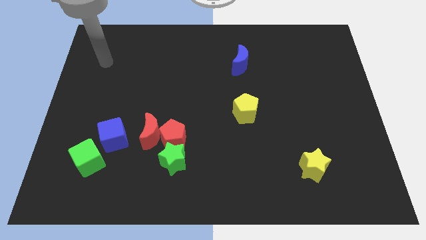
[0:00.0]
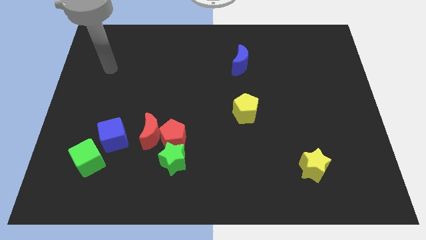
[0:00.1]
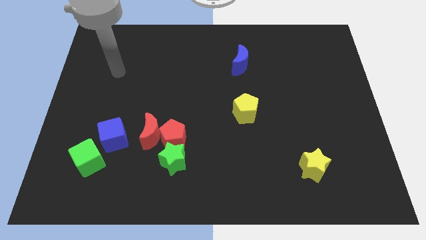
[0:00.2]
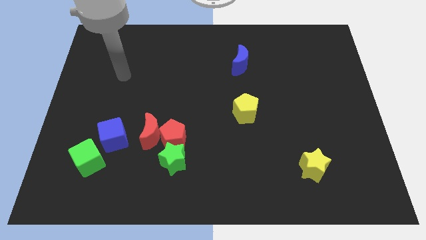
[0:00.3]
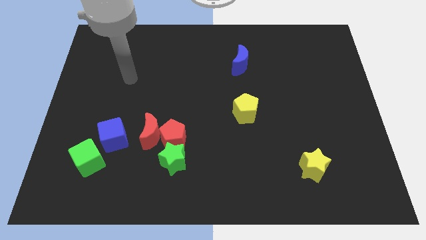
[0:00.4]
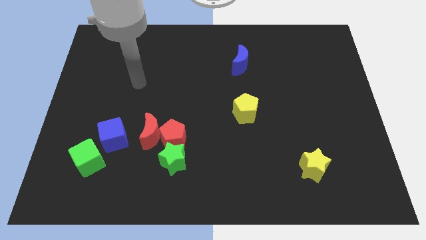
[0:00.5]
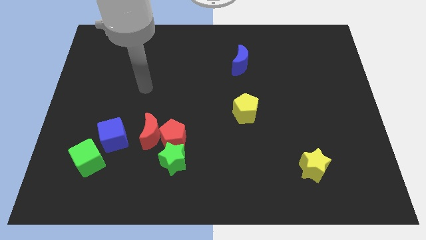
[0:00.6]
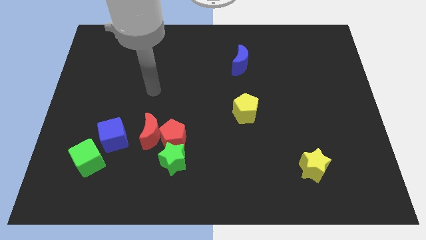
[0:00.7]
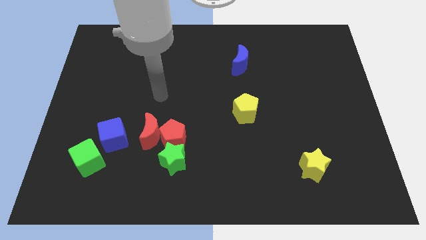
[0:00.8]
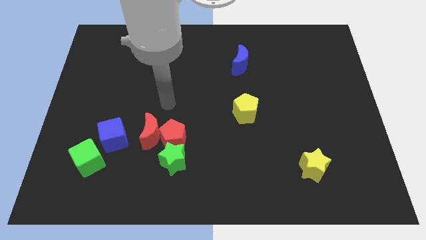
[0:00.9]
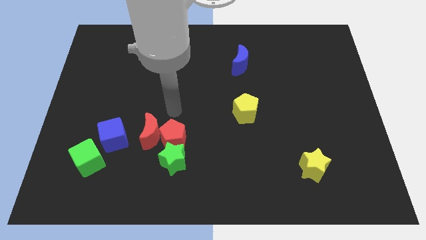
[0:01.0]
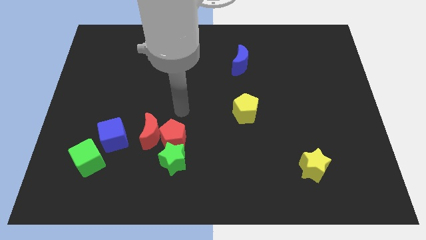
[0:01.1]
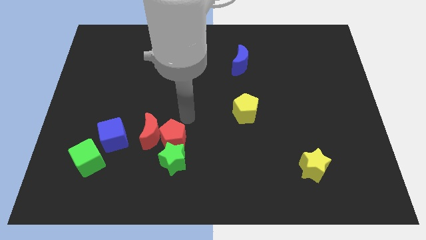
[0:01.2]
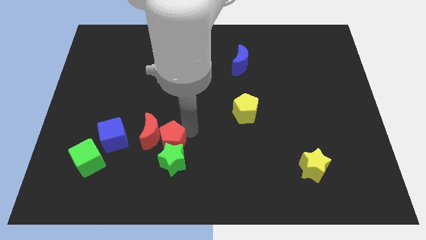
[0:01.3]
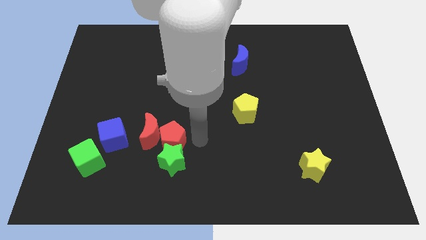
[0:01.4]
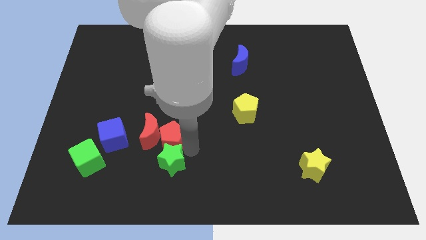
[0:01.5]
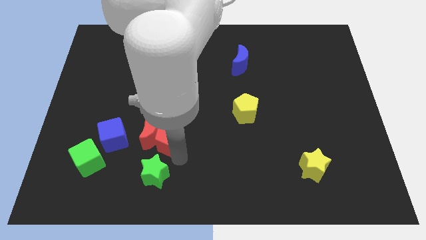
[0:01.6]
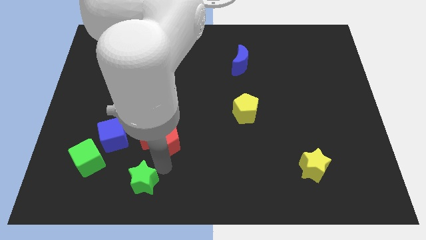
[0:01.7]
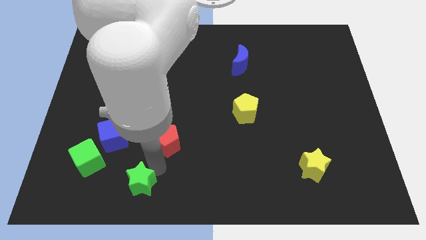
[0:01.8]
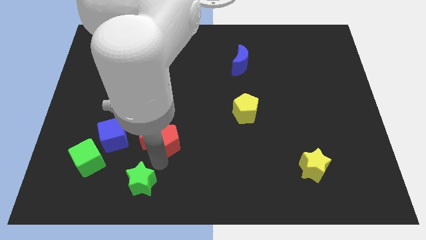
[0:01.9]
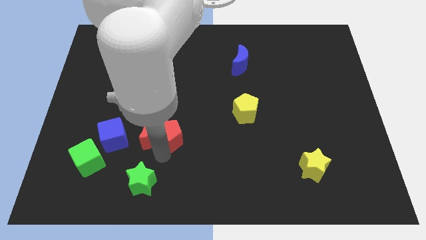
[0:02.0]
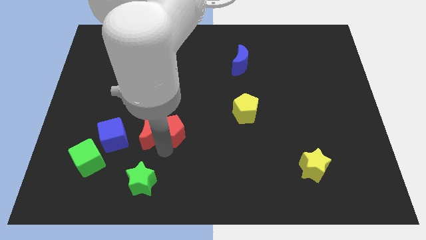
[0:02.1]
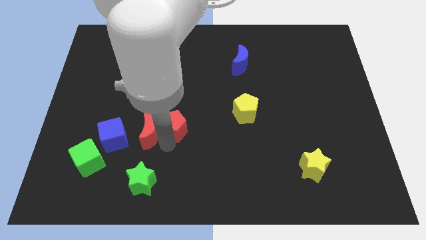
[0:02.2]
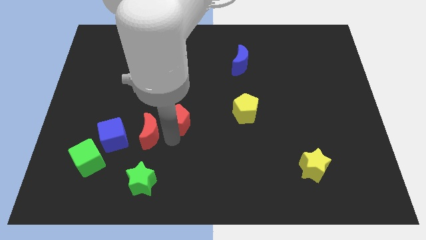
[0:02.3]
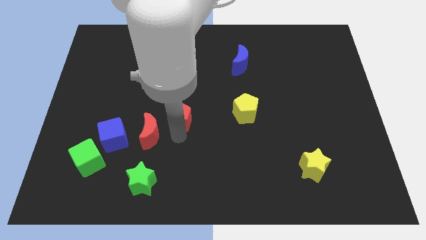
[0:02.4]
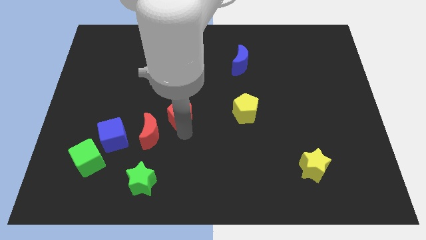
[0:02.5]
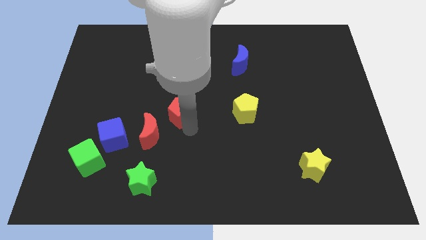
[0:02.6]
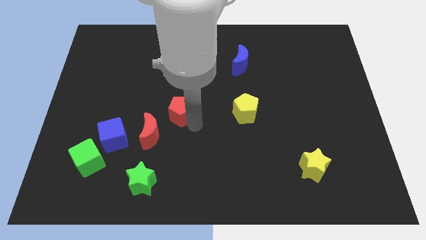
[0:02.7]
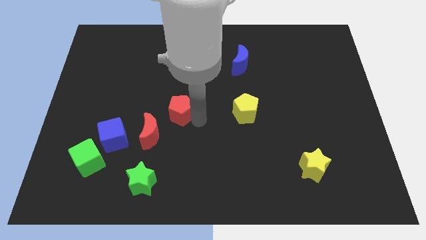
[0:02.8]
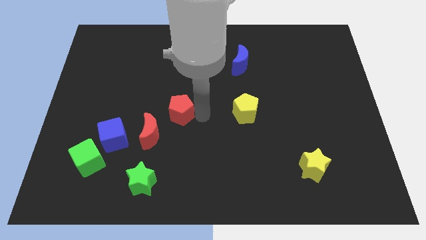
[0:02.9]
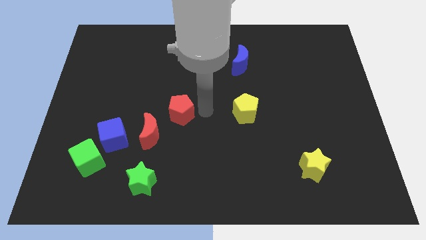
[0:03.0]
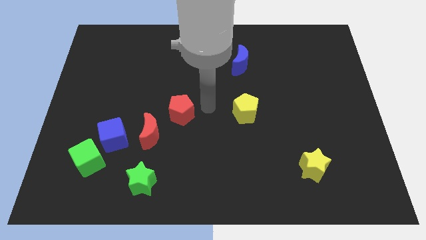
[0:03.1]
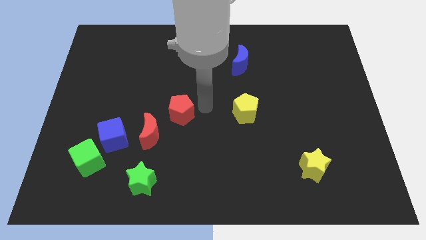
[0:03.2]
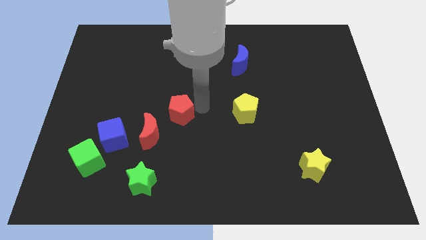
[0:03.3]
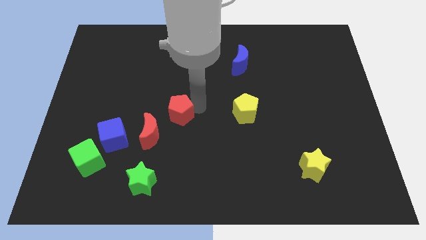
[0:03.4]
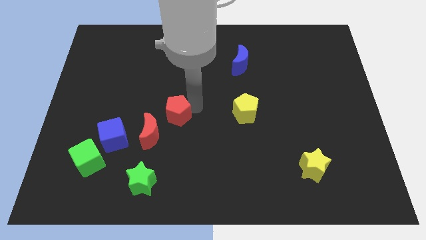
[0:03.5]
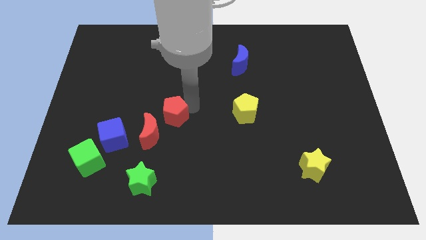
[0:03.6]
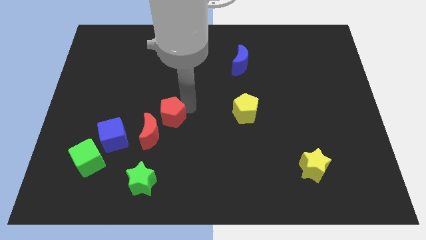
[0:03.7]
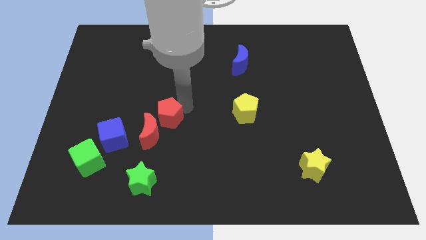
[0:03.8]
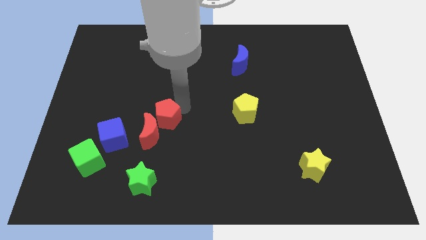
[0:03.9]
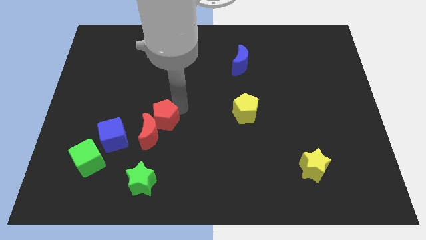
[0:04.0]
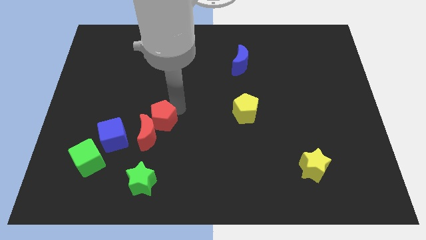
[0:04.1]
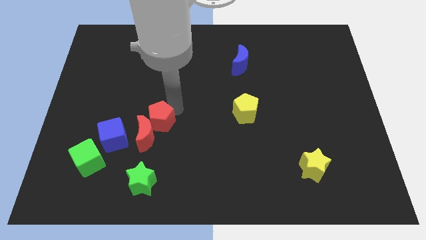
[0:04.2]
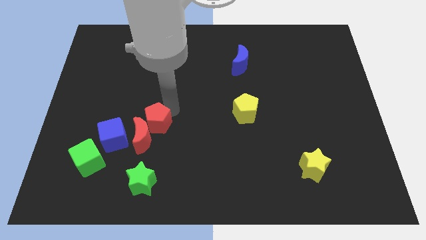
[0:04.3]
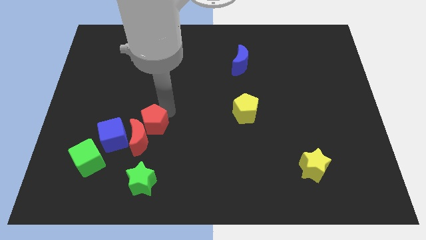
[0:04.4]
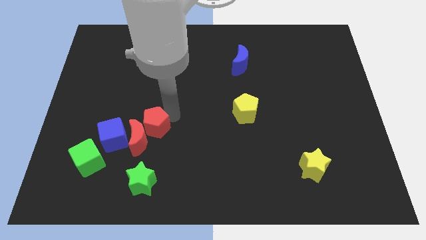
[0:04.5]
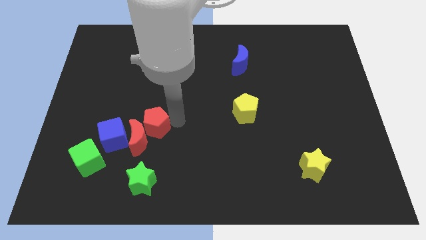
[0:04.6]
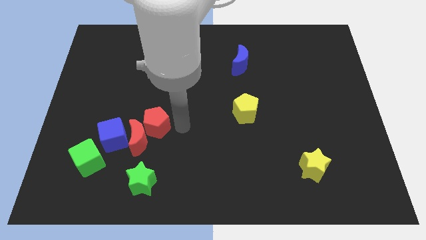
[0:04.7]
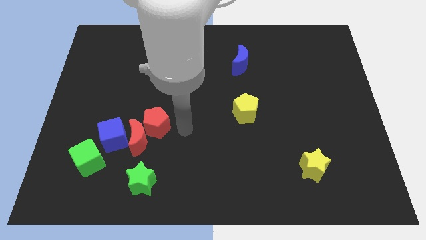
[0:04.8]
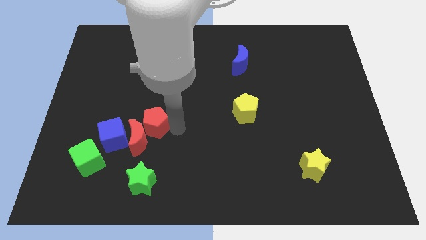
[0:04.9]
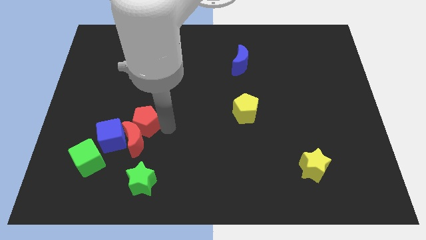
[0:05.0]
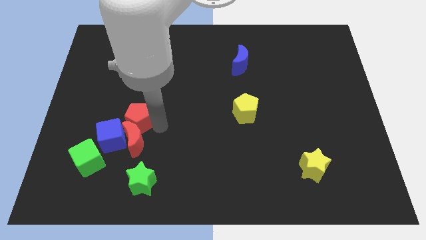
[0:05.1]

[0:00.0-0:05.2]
slightly slide the red pentagon left

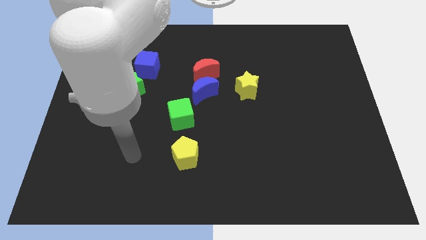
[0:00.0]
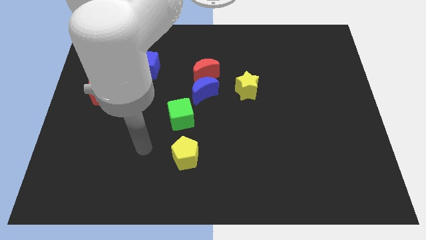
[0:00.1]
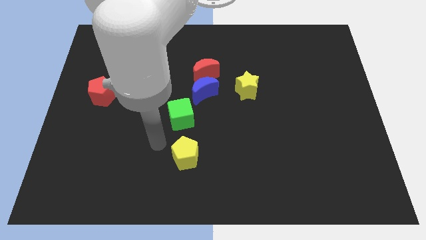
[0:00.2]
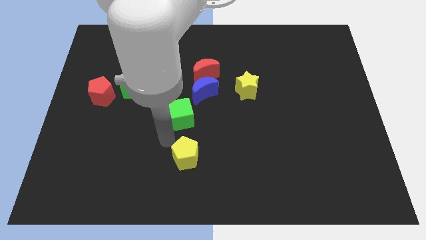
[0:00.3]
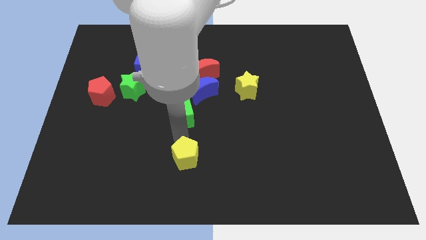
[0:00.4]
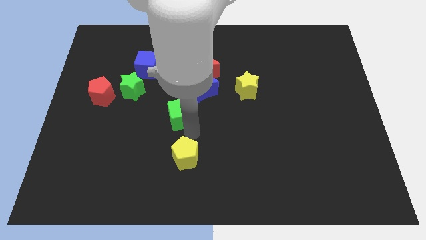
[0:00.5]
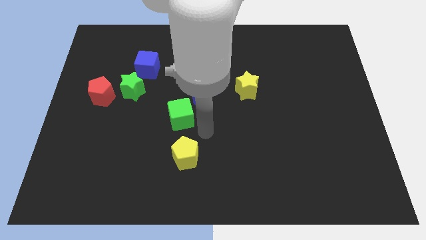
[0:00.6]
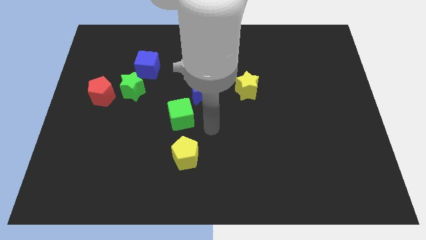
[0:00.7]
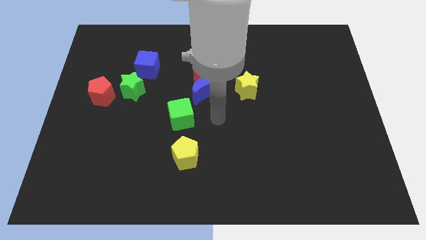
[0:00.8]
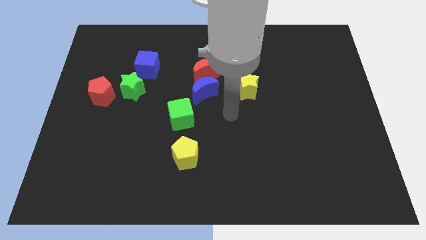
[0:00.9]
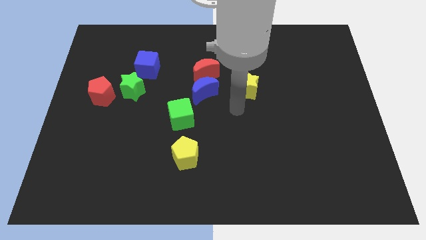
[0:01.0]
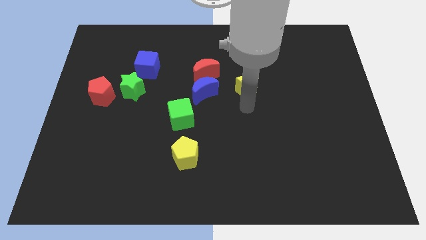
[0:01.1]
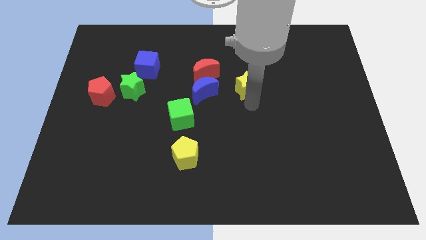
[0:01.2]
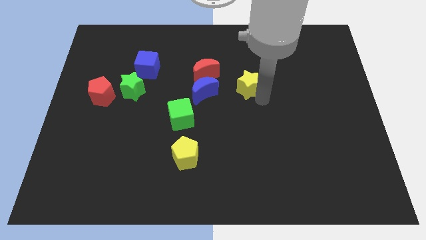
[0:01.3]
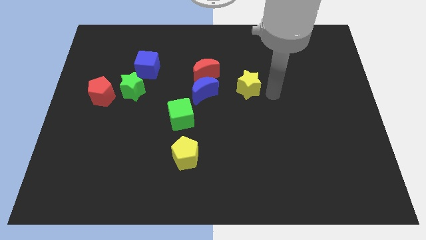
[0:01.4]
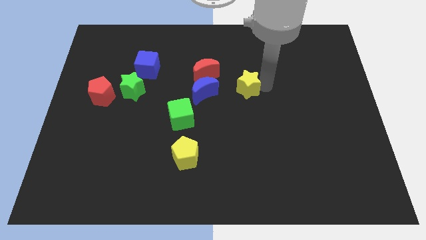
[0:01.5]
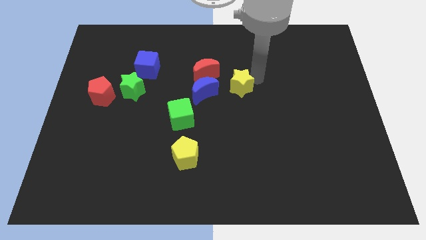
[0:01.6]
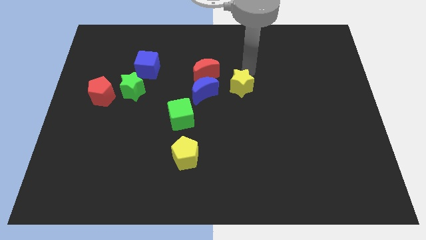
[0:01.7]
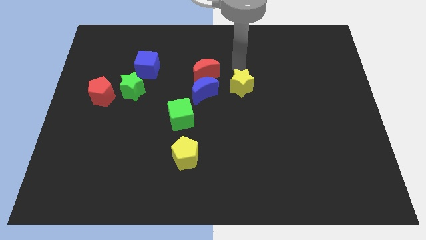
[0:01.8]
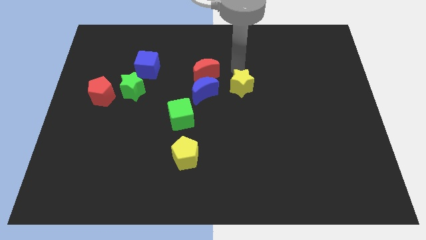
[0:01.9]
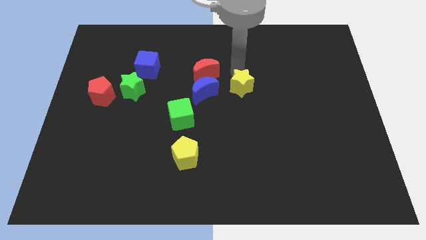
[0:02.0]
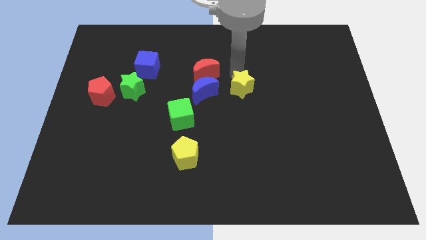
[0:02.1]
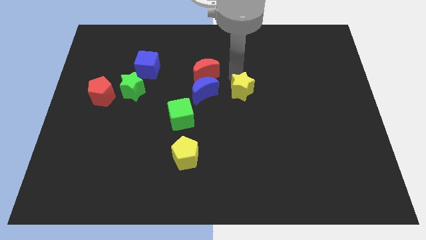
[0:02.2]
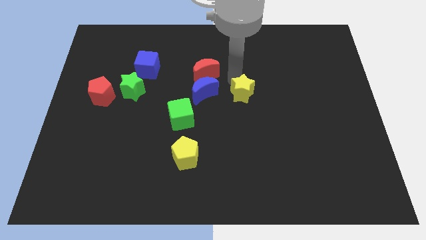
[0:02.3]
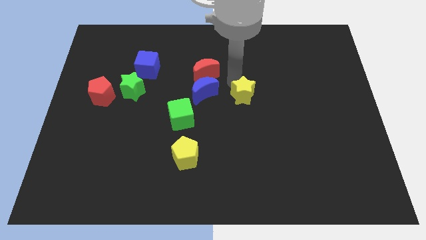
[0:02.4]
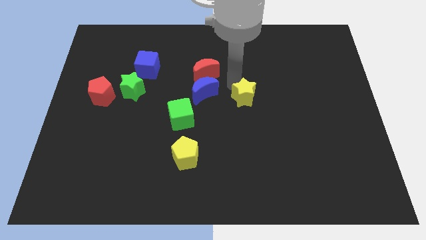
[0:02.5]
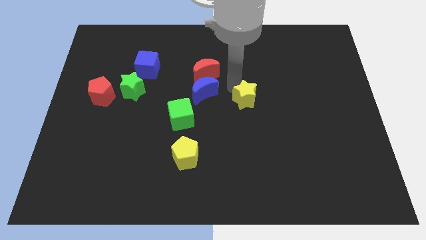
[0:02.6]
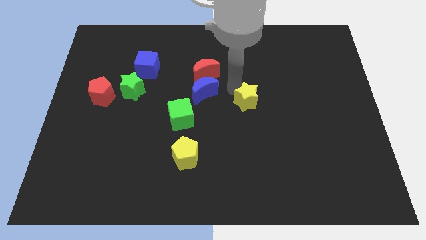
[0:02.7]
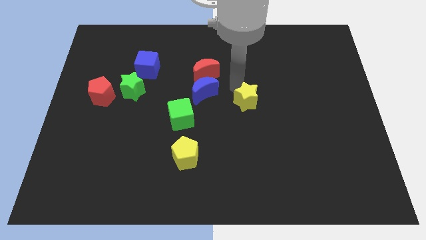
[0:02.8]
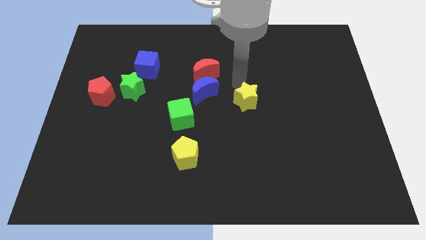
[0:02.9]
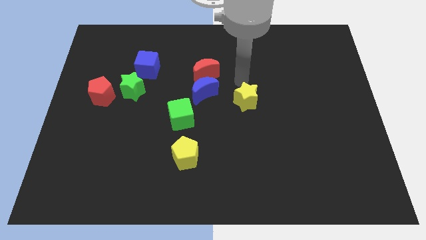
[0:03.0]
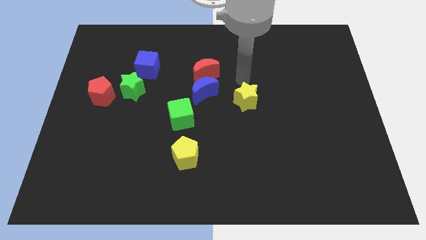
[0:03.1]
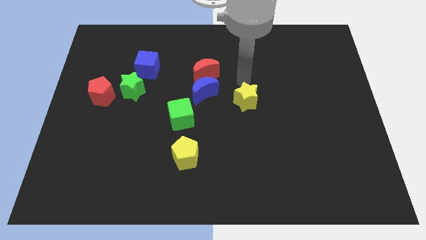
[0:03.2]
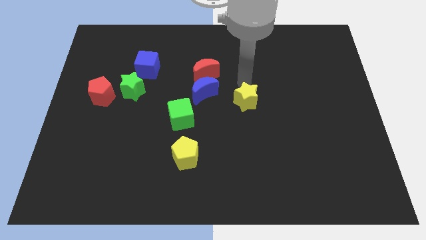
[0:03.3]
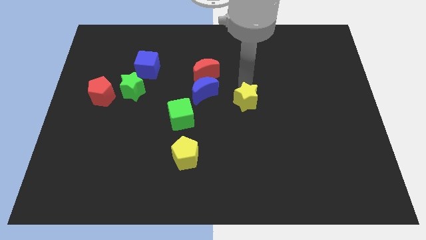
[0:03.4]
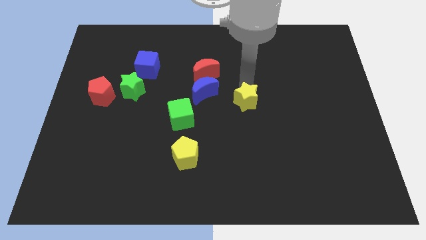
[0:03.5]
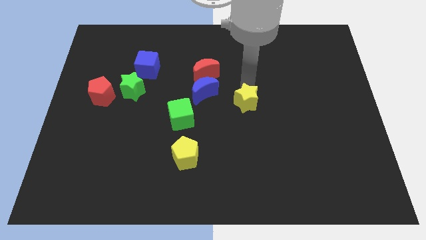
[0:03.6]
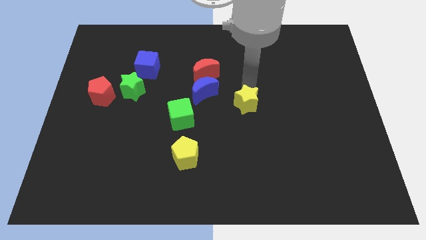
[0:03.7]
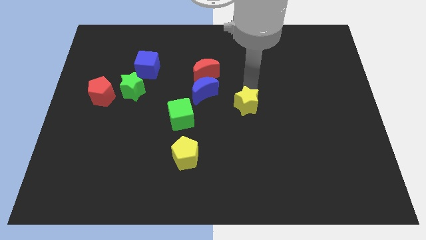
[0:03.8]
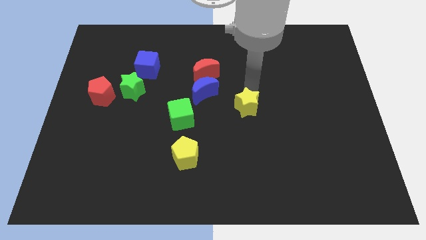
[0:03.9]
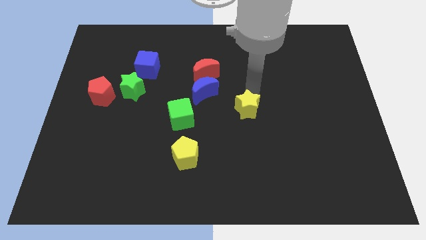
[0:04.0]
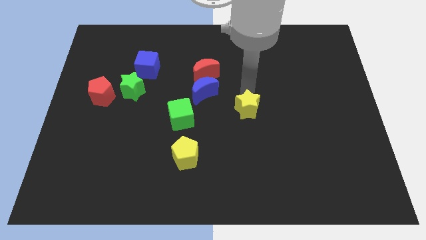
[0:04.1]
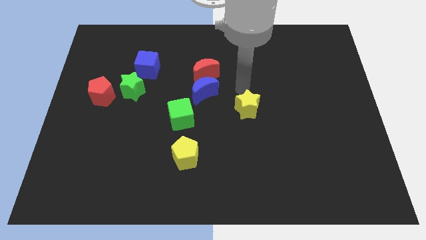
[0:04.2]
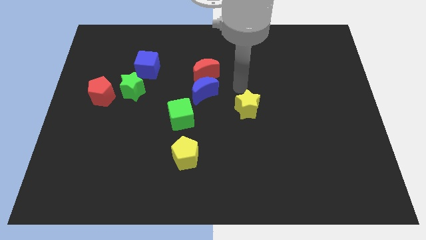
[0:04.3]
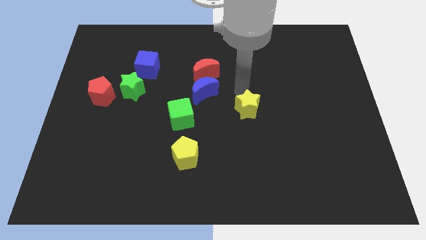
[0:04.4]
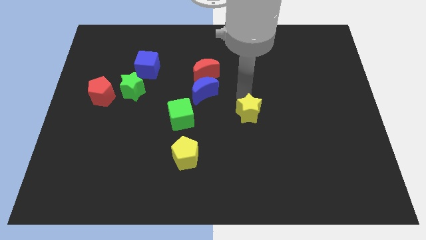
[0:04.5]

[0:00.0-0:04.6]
move the yellow star downwards somewhat
